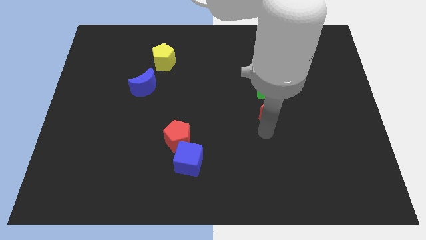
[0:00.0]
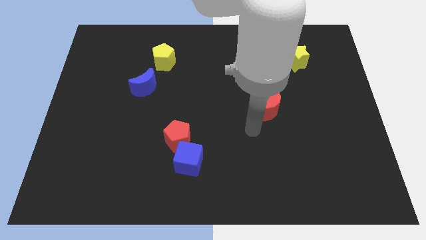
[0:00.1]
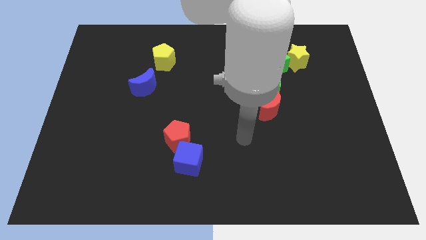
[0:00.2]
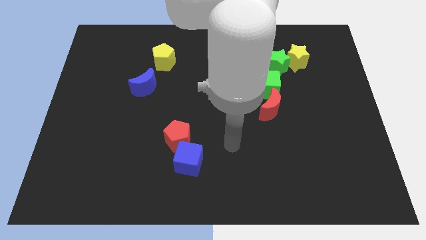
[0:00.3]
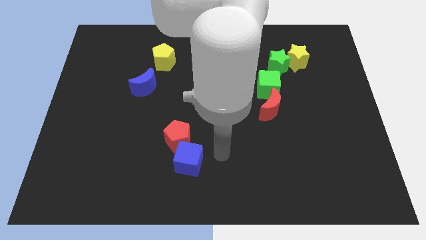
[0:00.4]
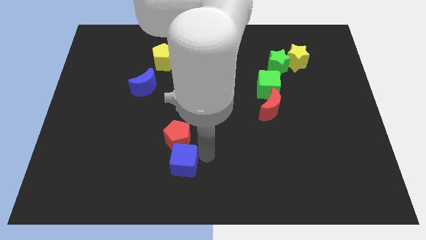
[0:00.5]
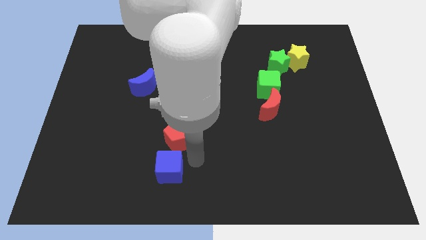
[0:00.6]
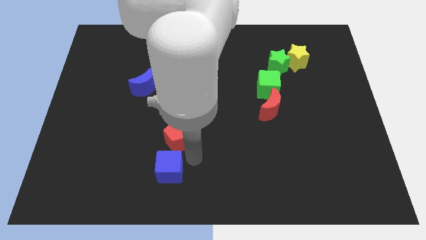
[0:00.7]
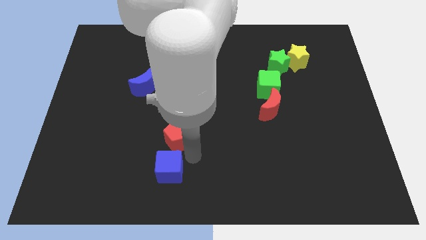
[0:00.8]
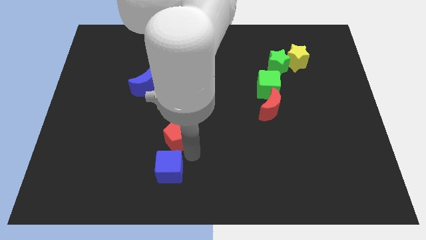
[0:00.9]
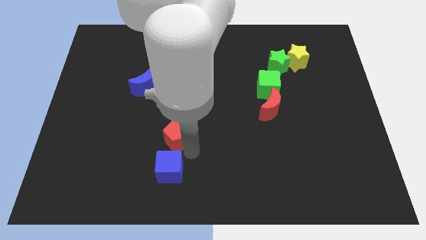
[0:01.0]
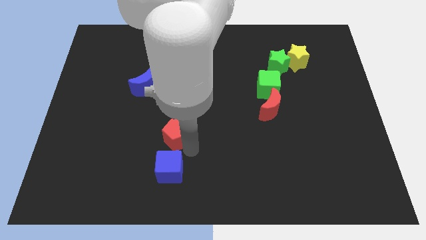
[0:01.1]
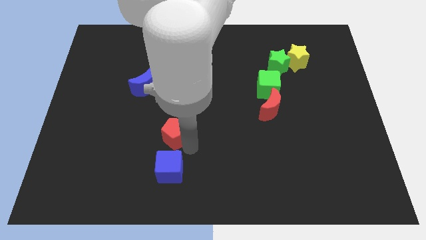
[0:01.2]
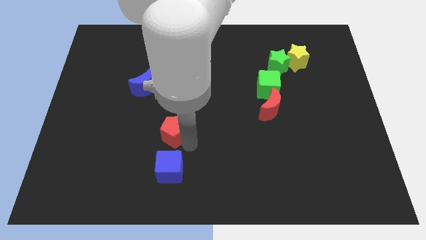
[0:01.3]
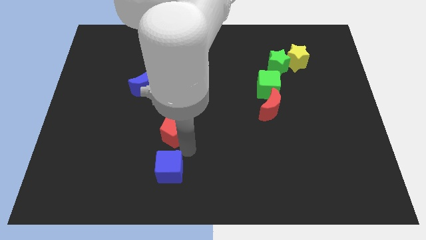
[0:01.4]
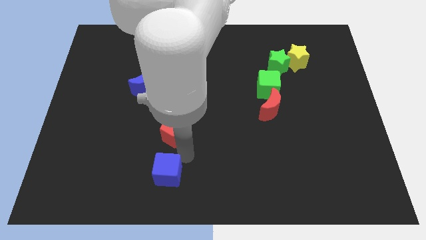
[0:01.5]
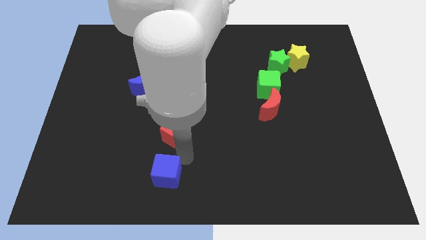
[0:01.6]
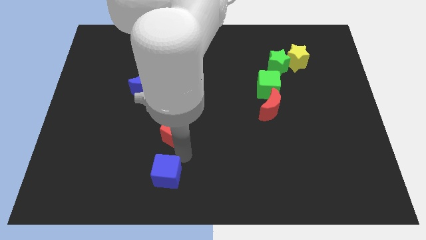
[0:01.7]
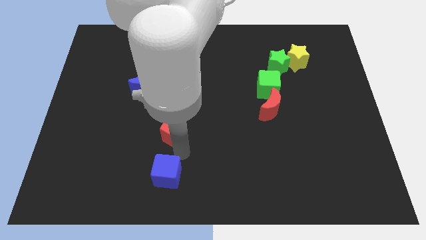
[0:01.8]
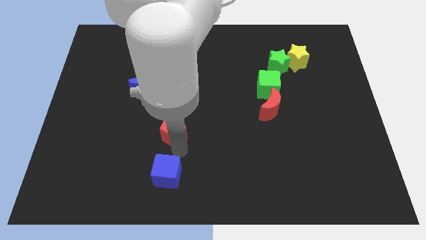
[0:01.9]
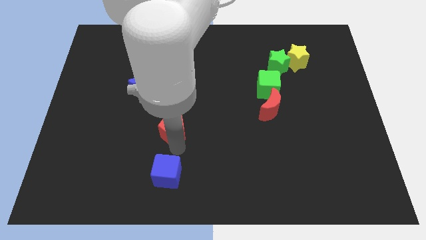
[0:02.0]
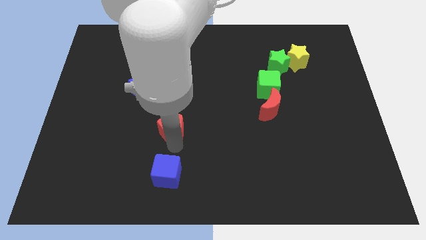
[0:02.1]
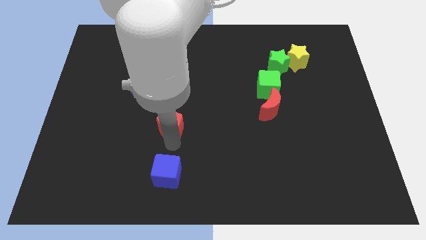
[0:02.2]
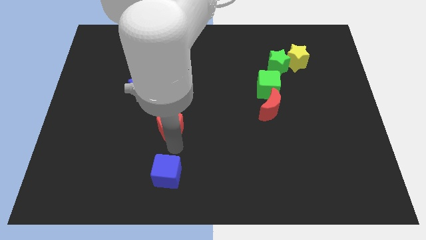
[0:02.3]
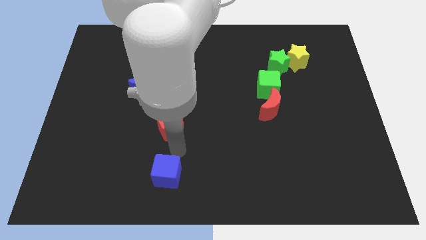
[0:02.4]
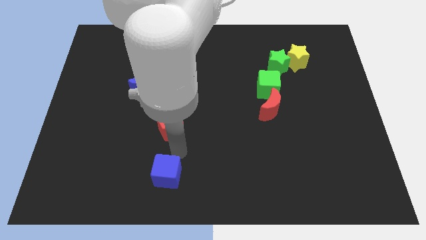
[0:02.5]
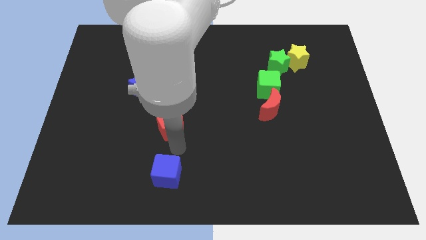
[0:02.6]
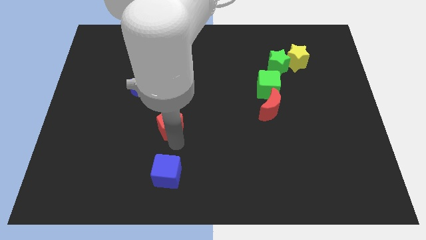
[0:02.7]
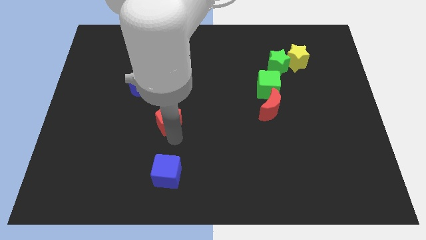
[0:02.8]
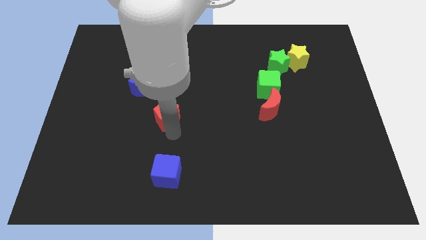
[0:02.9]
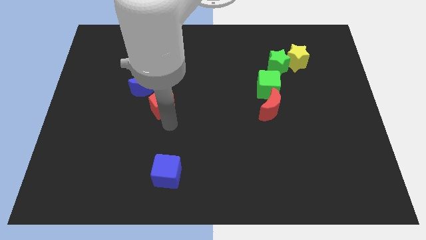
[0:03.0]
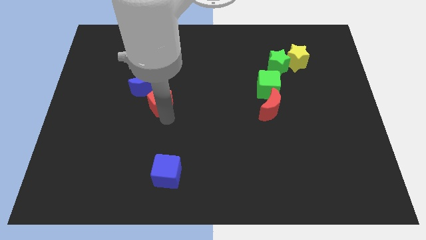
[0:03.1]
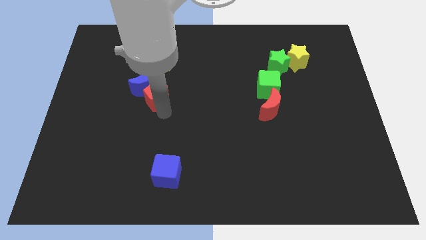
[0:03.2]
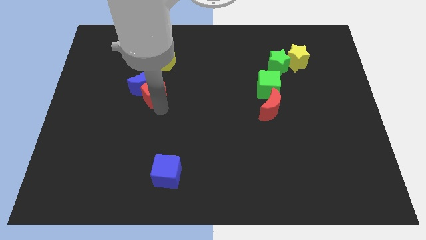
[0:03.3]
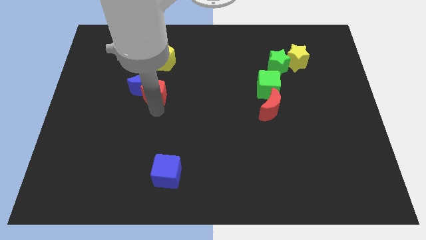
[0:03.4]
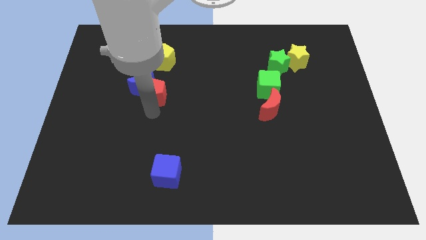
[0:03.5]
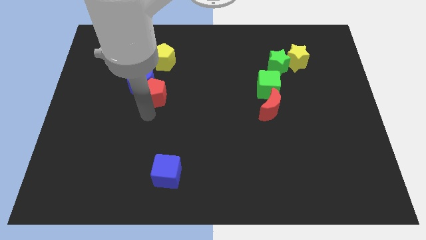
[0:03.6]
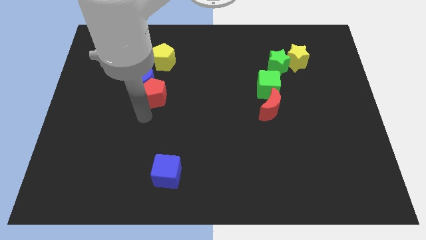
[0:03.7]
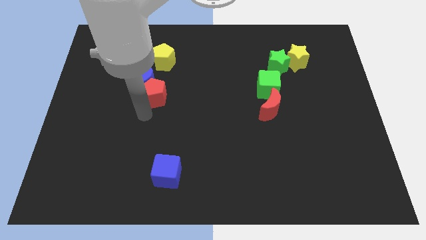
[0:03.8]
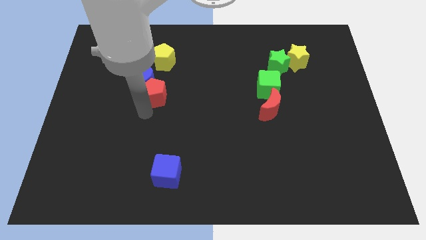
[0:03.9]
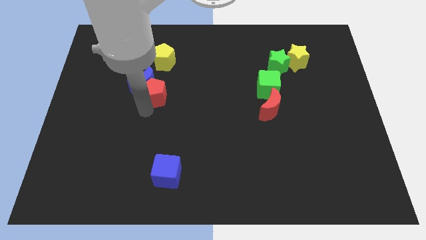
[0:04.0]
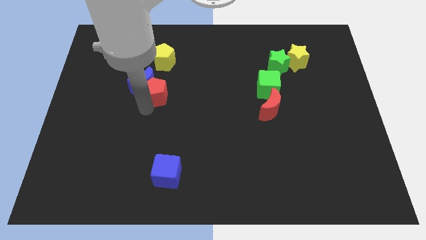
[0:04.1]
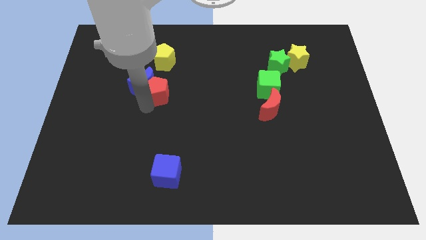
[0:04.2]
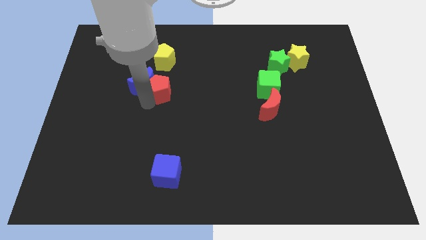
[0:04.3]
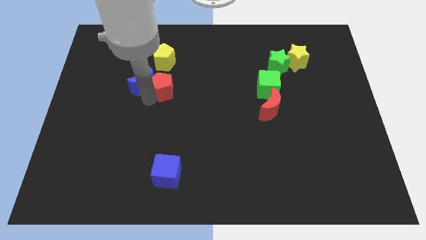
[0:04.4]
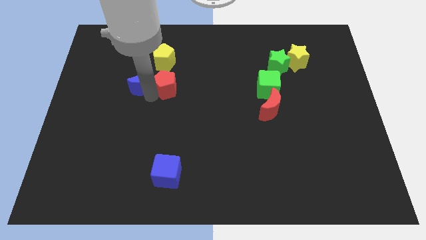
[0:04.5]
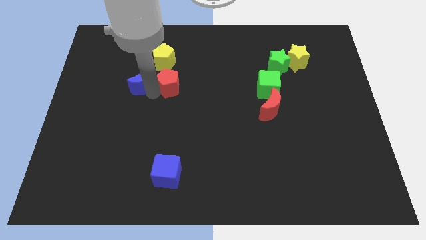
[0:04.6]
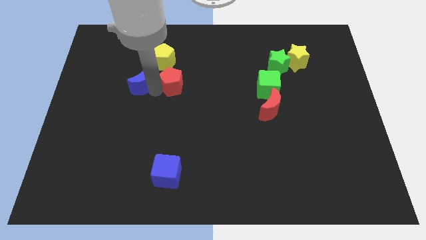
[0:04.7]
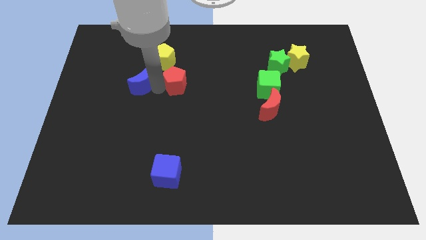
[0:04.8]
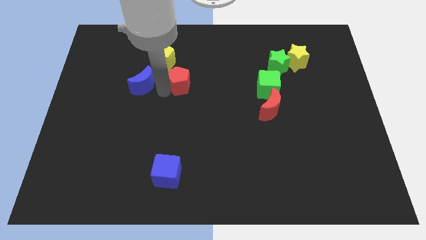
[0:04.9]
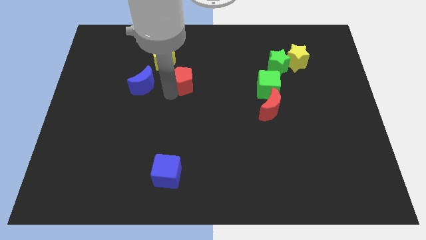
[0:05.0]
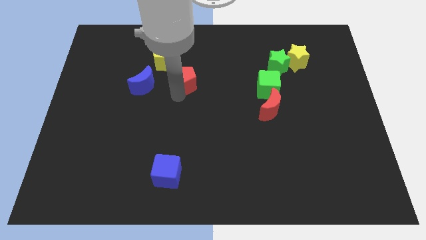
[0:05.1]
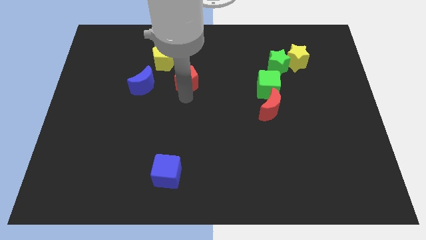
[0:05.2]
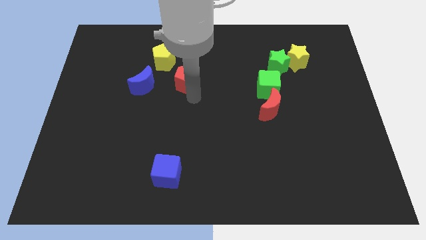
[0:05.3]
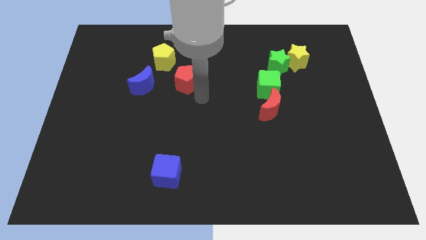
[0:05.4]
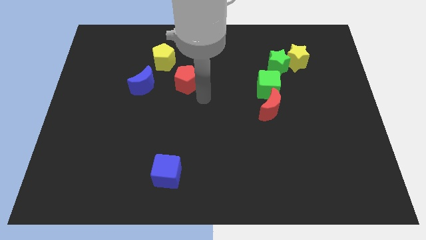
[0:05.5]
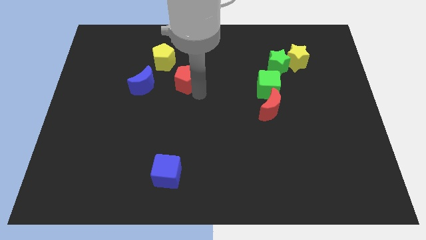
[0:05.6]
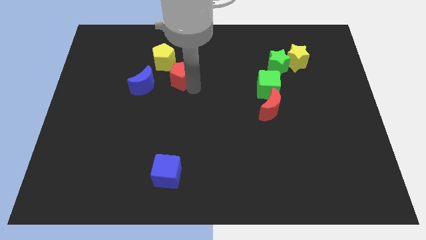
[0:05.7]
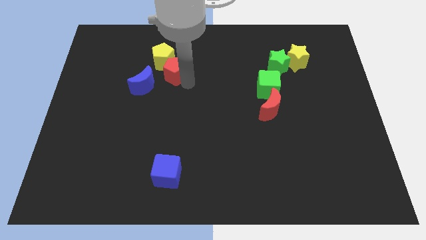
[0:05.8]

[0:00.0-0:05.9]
slide the red pentagon towards the yellow pentagon

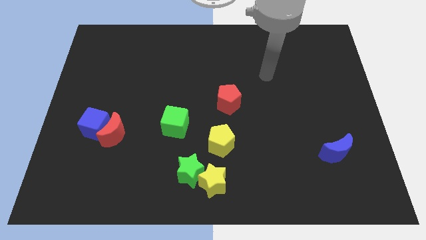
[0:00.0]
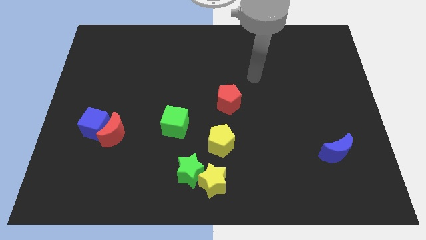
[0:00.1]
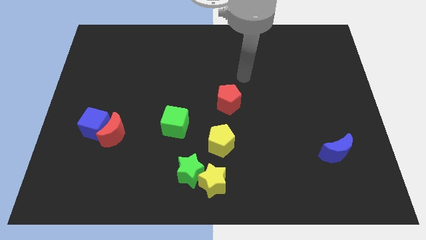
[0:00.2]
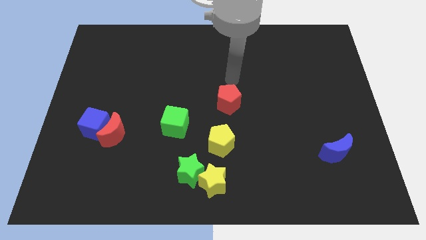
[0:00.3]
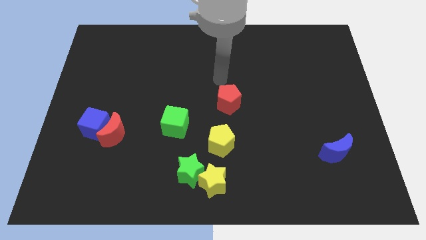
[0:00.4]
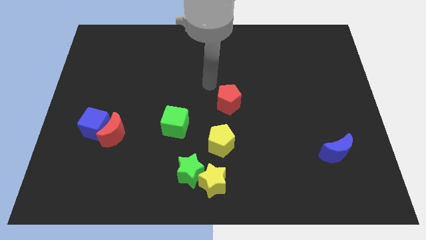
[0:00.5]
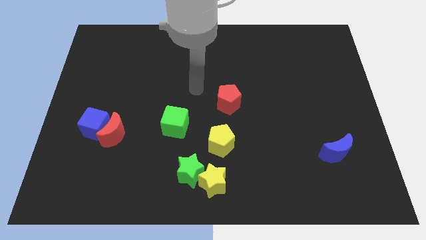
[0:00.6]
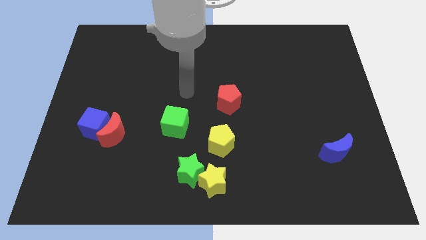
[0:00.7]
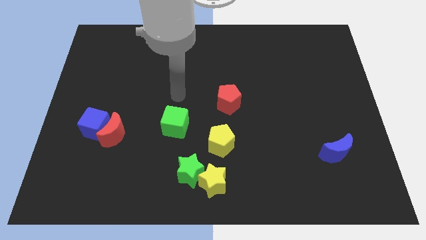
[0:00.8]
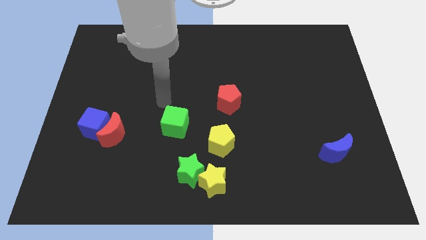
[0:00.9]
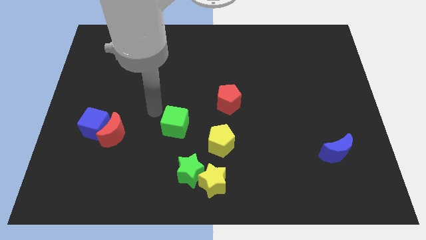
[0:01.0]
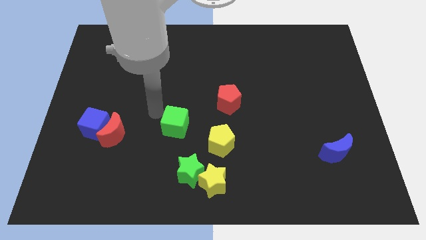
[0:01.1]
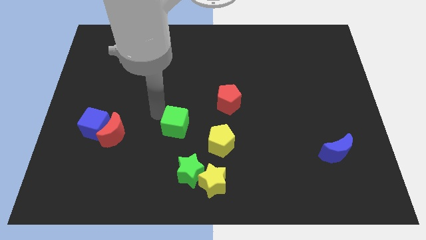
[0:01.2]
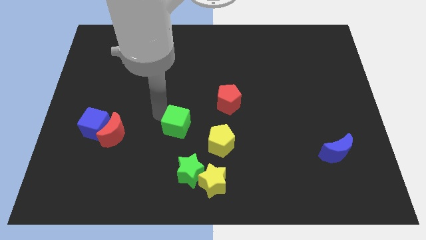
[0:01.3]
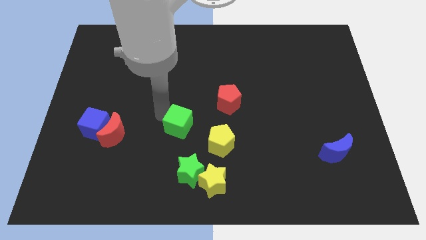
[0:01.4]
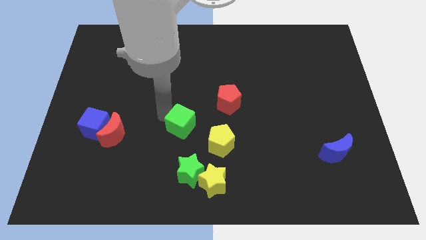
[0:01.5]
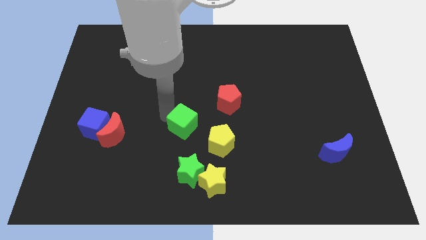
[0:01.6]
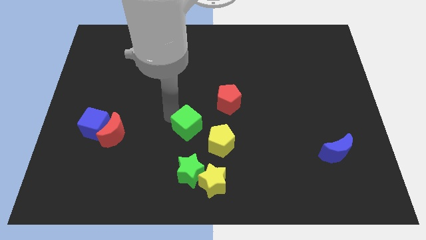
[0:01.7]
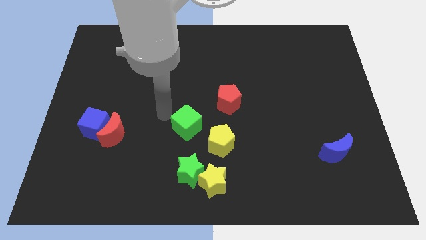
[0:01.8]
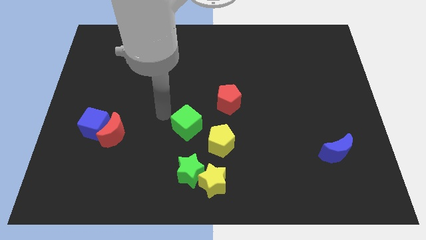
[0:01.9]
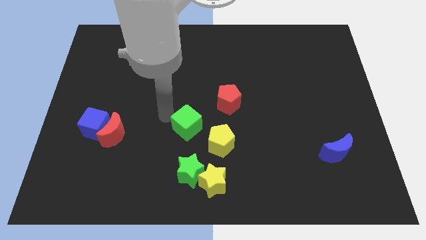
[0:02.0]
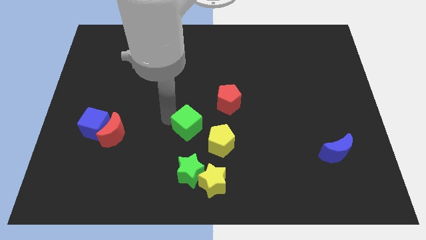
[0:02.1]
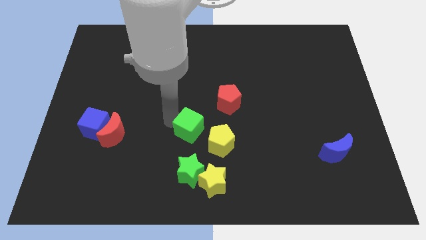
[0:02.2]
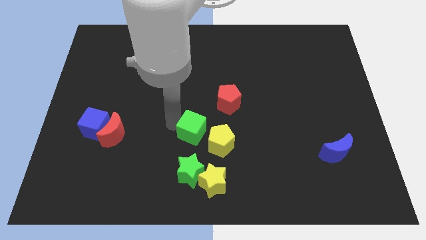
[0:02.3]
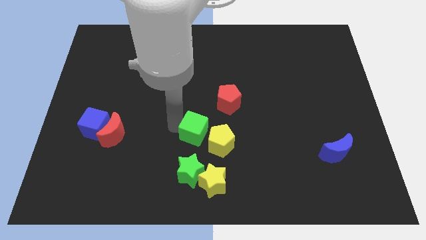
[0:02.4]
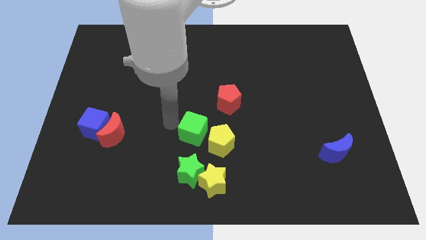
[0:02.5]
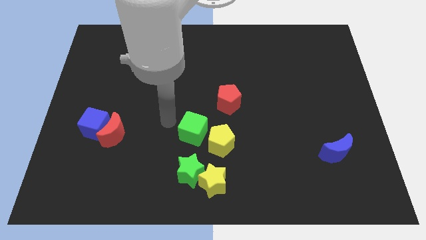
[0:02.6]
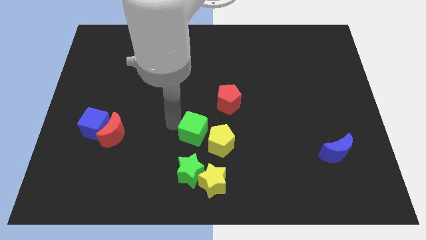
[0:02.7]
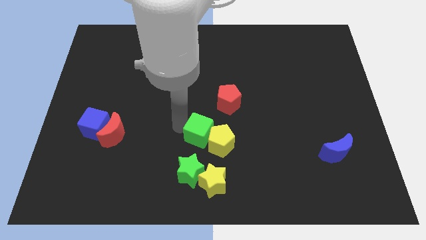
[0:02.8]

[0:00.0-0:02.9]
move the green cube close to the yellow pentagon
